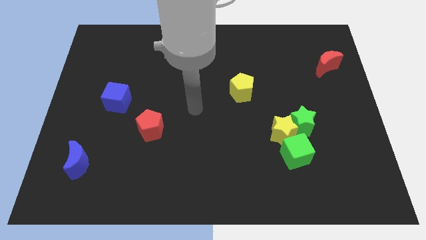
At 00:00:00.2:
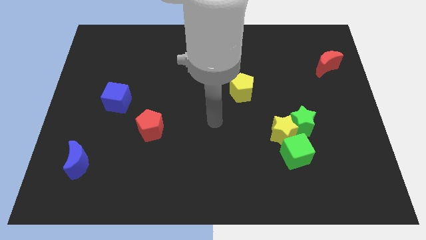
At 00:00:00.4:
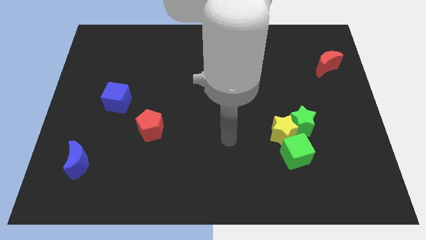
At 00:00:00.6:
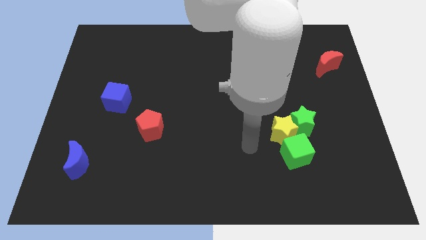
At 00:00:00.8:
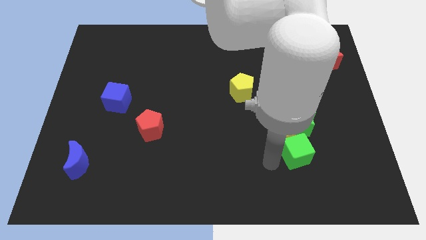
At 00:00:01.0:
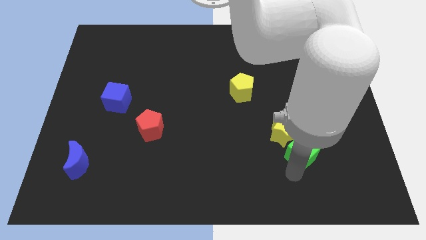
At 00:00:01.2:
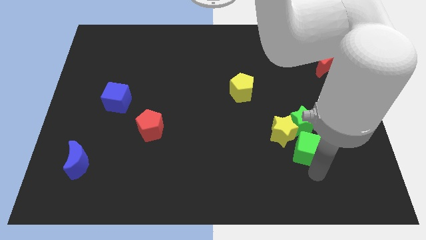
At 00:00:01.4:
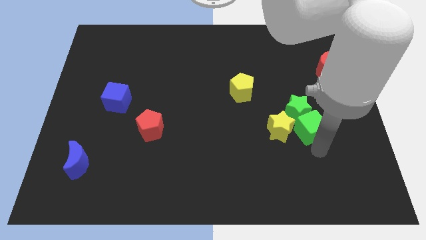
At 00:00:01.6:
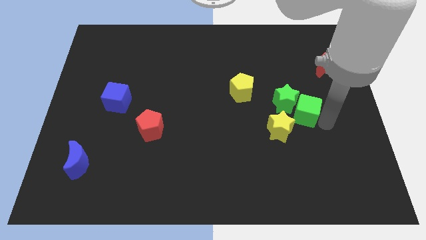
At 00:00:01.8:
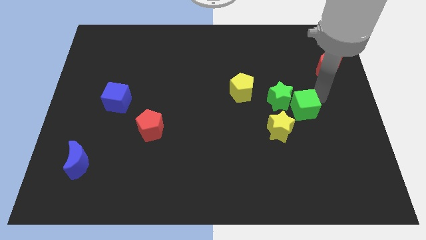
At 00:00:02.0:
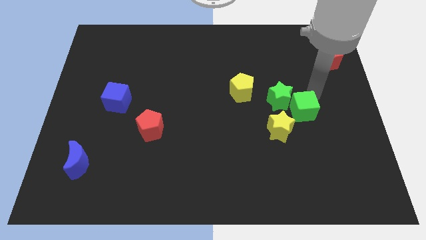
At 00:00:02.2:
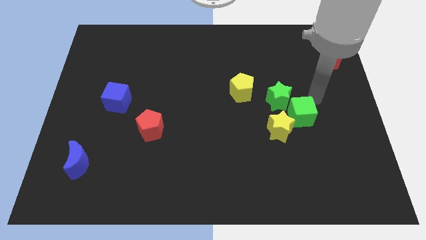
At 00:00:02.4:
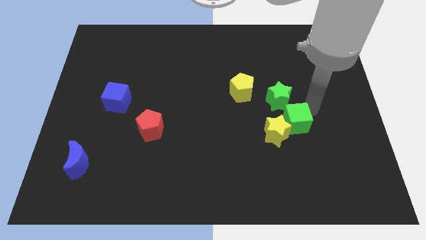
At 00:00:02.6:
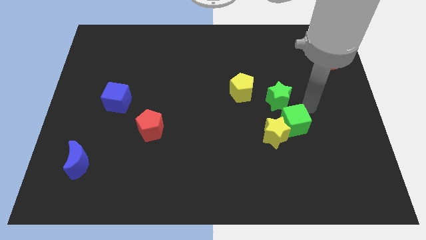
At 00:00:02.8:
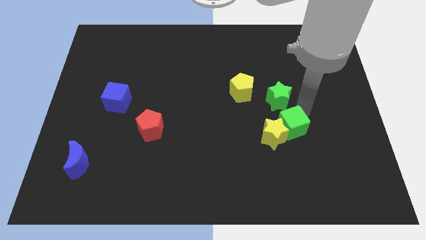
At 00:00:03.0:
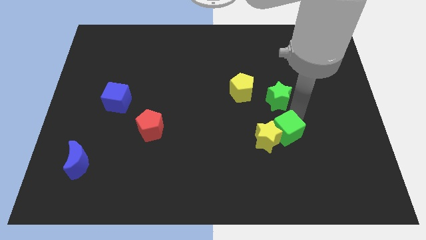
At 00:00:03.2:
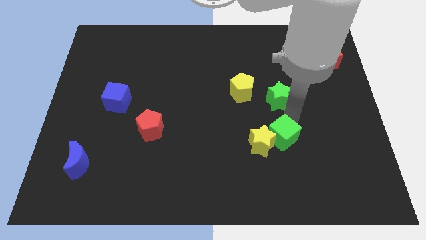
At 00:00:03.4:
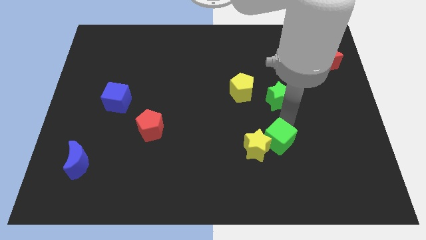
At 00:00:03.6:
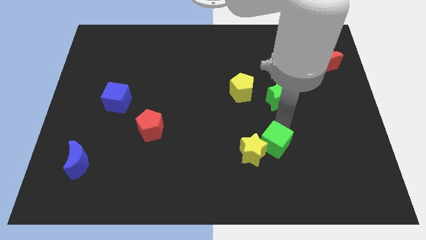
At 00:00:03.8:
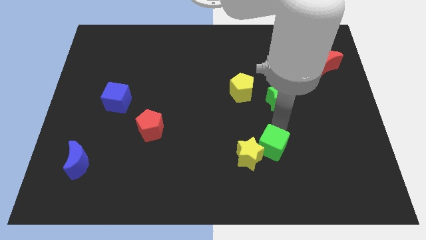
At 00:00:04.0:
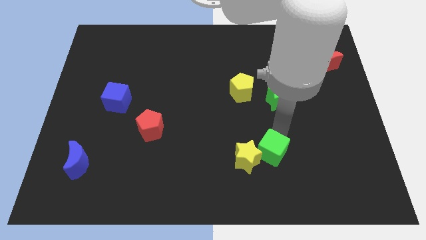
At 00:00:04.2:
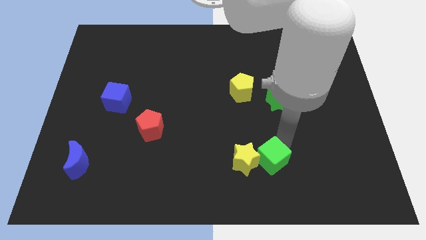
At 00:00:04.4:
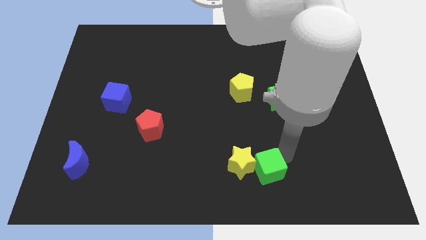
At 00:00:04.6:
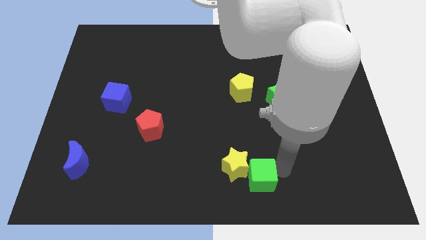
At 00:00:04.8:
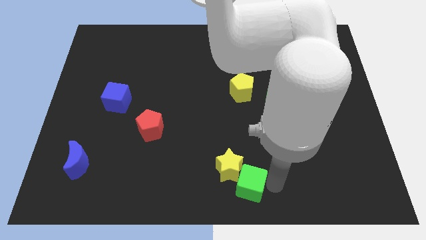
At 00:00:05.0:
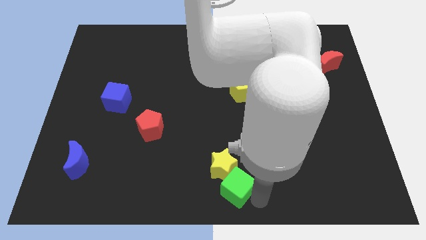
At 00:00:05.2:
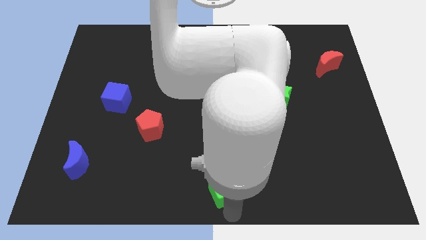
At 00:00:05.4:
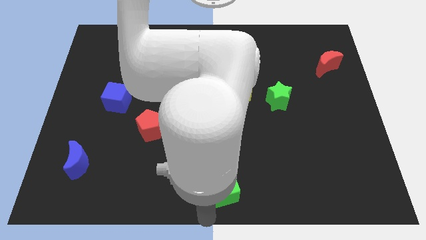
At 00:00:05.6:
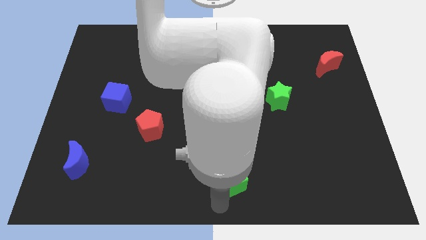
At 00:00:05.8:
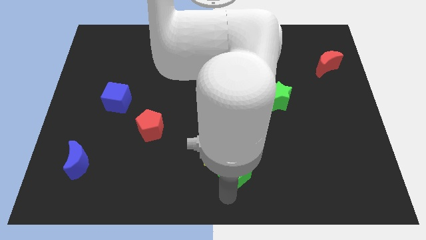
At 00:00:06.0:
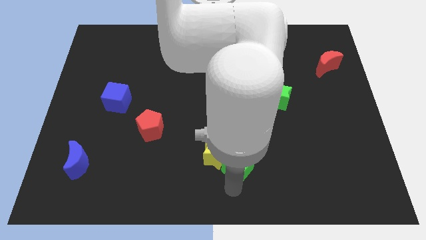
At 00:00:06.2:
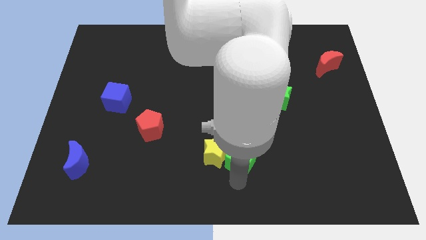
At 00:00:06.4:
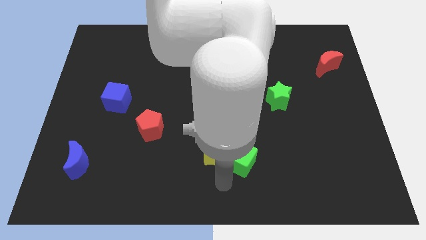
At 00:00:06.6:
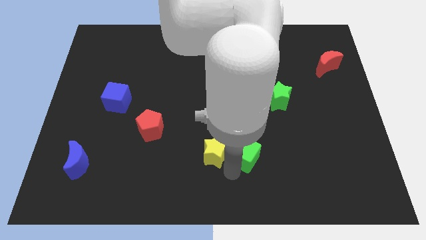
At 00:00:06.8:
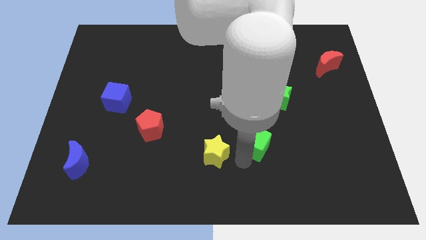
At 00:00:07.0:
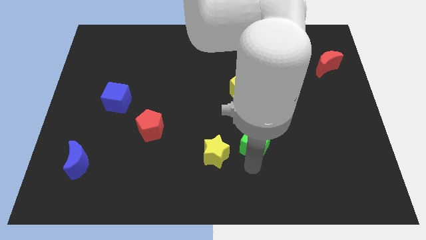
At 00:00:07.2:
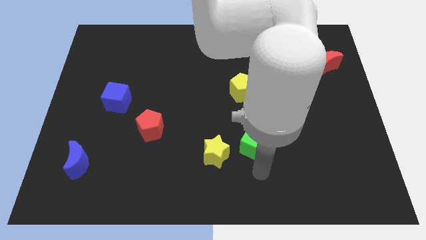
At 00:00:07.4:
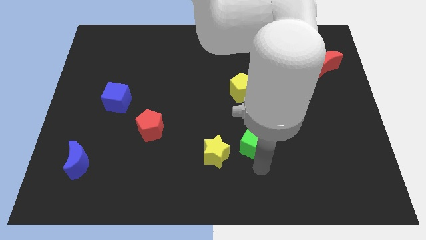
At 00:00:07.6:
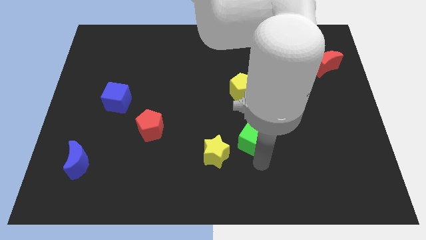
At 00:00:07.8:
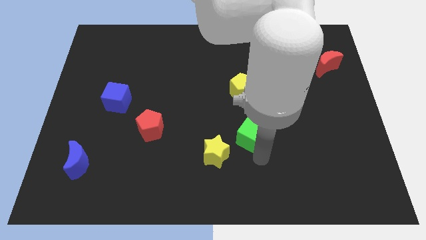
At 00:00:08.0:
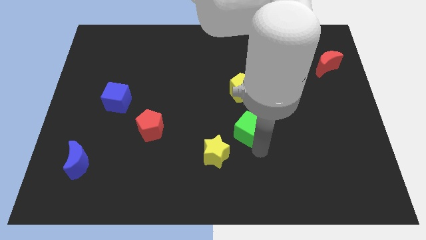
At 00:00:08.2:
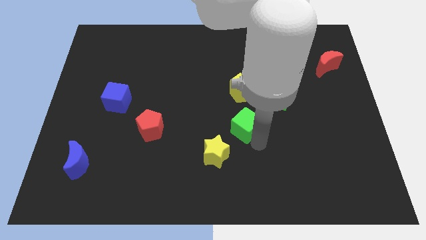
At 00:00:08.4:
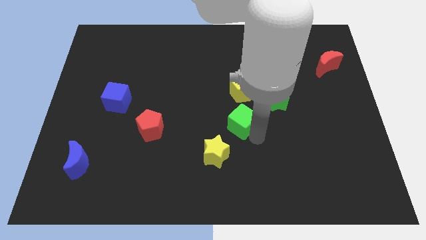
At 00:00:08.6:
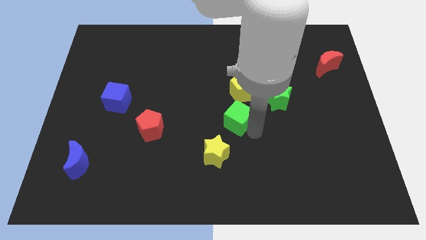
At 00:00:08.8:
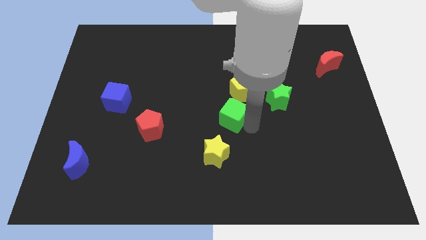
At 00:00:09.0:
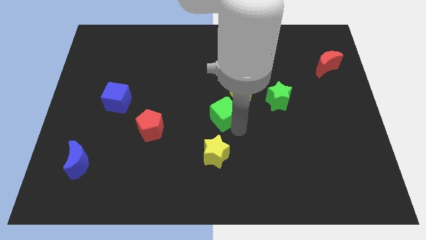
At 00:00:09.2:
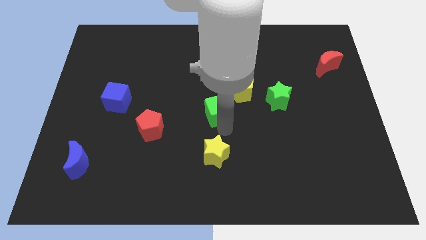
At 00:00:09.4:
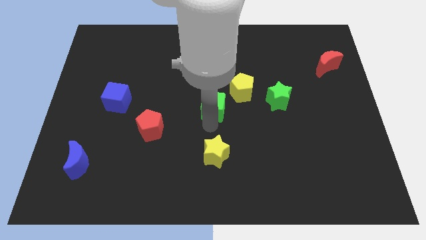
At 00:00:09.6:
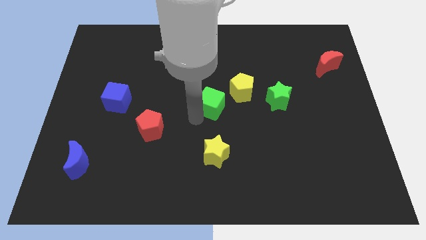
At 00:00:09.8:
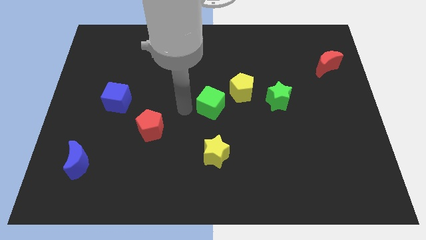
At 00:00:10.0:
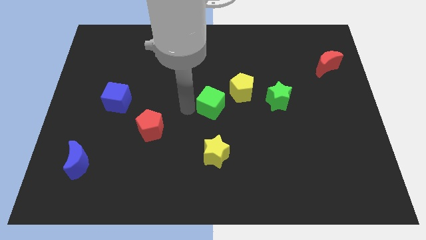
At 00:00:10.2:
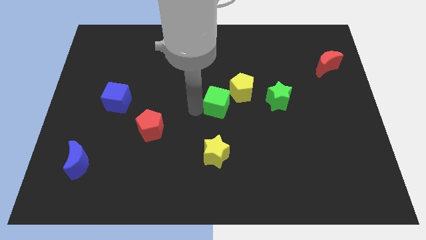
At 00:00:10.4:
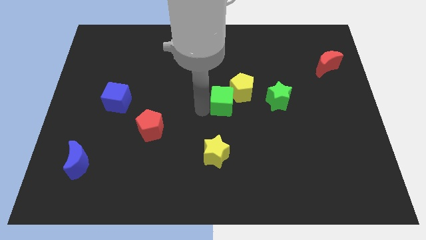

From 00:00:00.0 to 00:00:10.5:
put the green cube to the yellow pentagon

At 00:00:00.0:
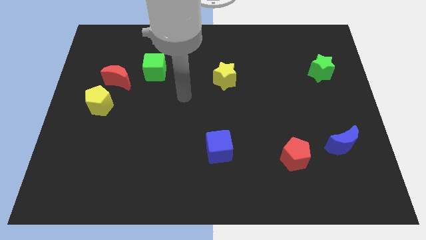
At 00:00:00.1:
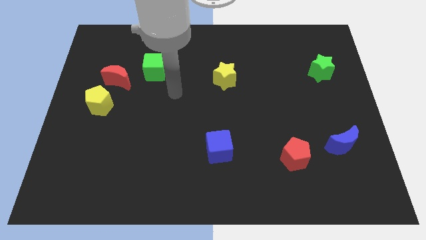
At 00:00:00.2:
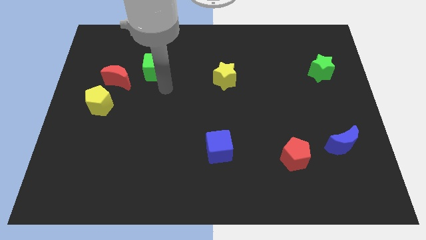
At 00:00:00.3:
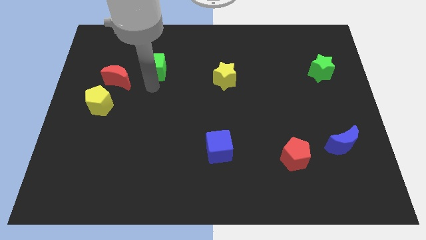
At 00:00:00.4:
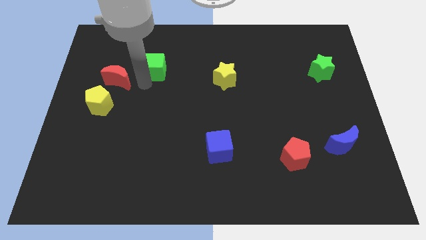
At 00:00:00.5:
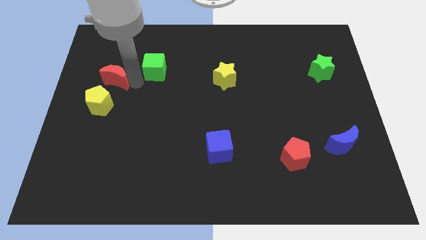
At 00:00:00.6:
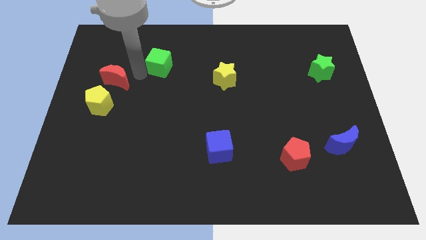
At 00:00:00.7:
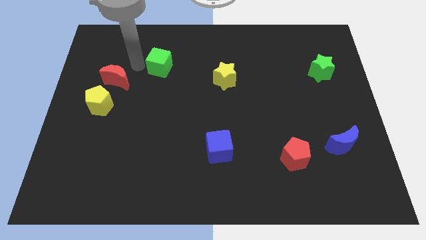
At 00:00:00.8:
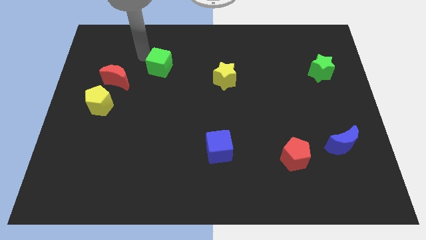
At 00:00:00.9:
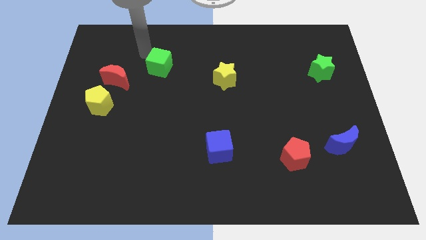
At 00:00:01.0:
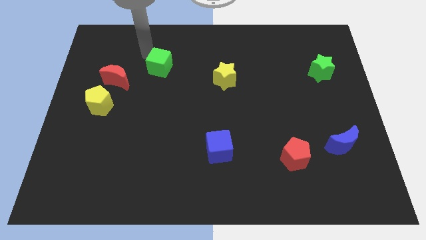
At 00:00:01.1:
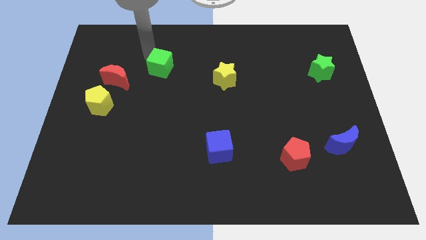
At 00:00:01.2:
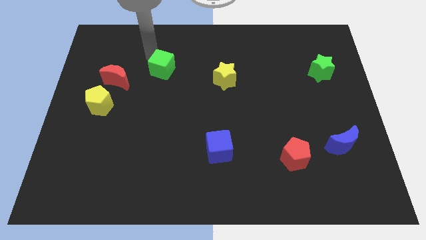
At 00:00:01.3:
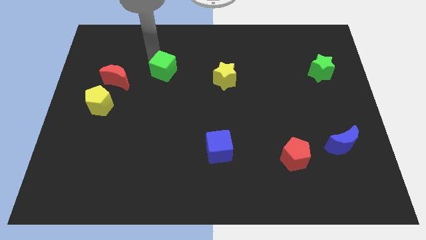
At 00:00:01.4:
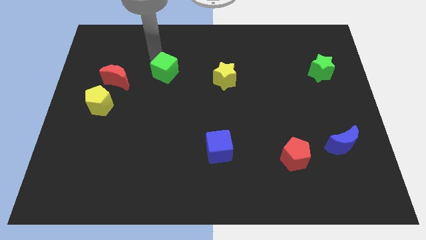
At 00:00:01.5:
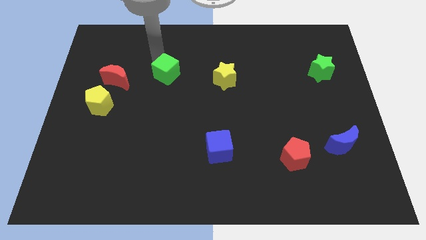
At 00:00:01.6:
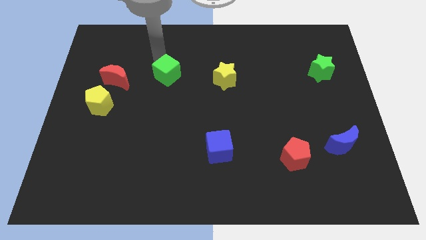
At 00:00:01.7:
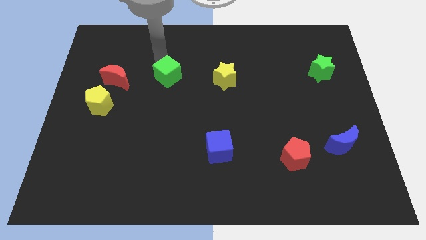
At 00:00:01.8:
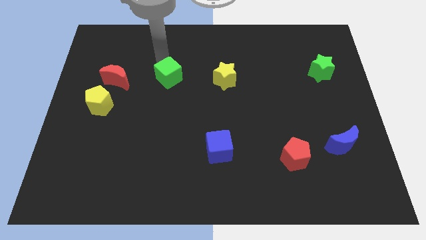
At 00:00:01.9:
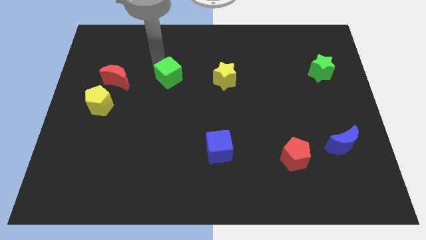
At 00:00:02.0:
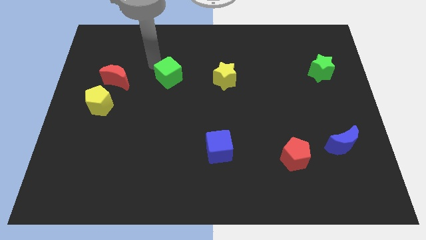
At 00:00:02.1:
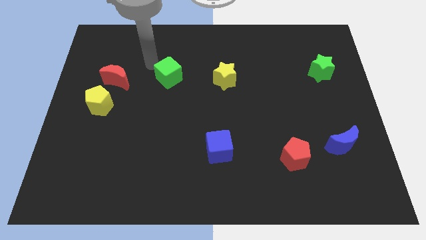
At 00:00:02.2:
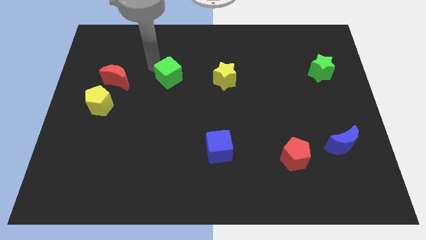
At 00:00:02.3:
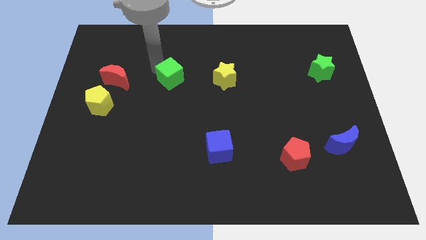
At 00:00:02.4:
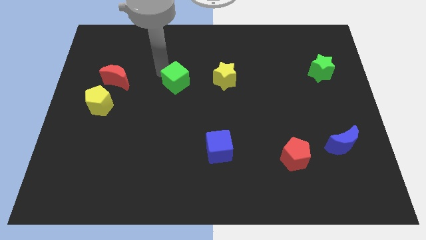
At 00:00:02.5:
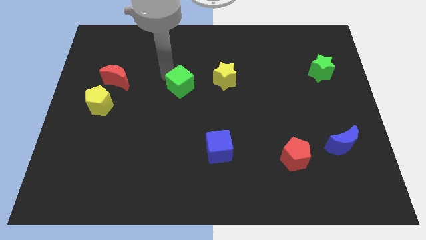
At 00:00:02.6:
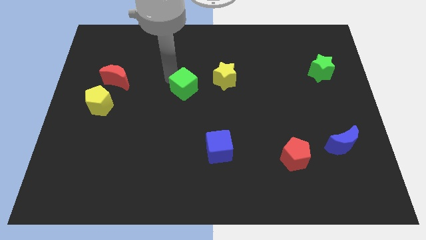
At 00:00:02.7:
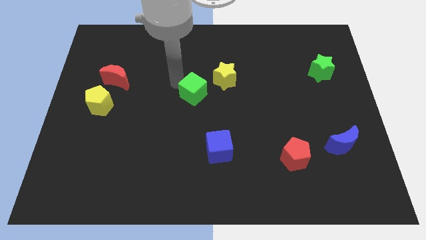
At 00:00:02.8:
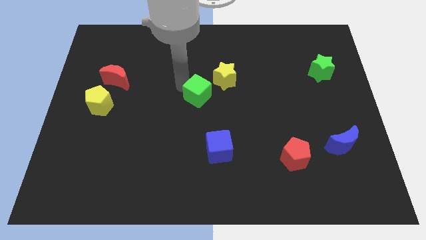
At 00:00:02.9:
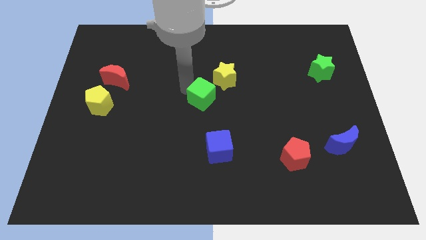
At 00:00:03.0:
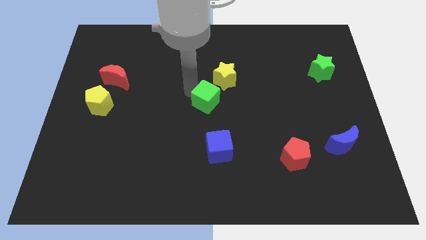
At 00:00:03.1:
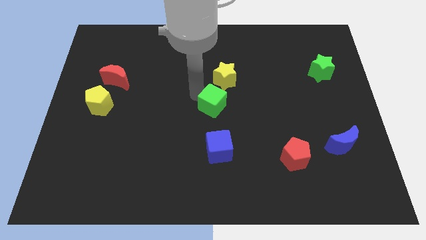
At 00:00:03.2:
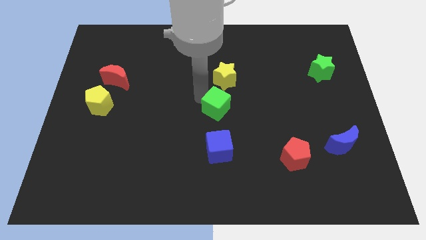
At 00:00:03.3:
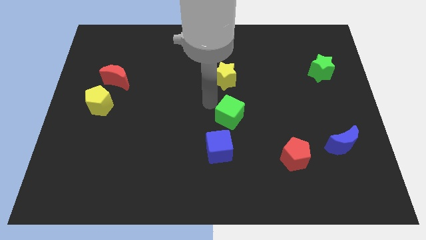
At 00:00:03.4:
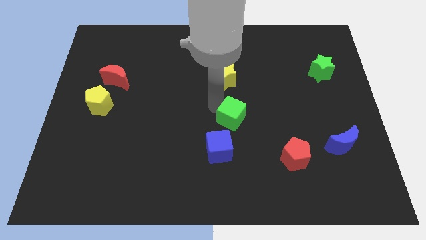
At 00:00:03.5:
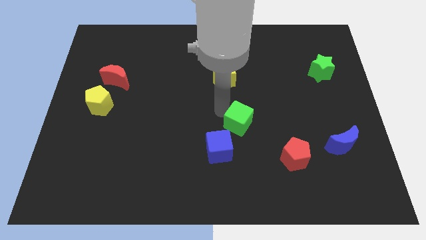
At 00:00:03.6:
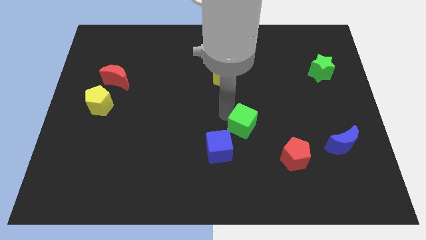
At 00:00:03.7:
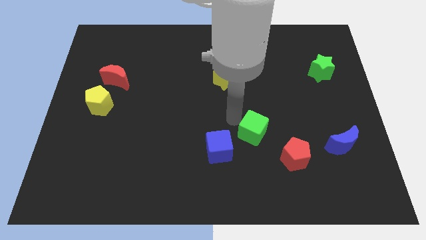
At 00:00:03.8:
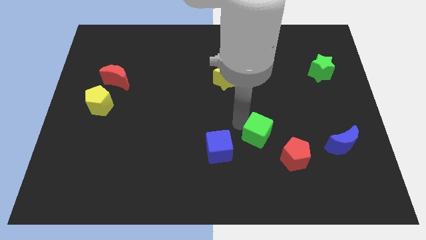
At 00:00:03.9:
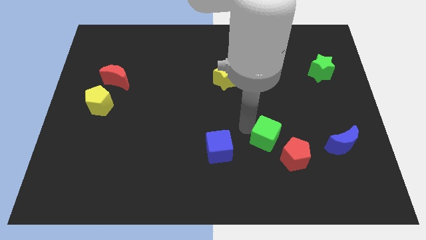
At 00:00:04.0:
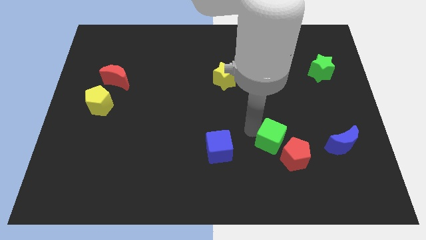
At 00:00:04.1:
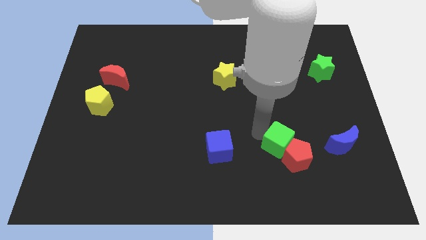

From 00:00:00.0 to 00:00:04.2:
push the green cube close to the red pentagon
